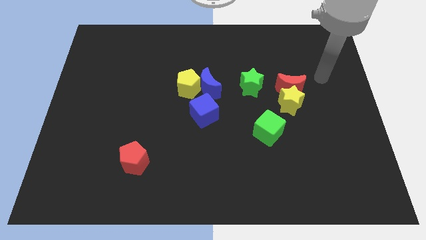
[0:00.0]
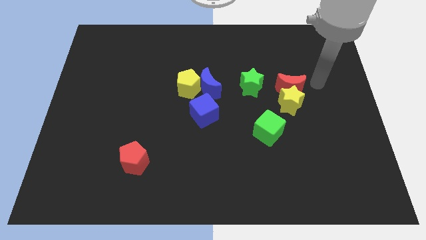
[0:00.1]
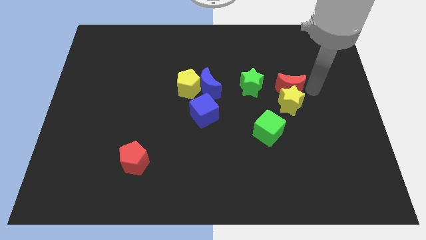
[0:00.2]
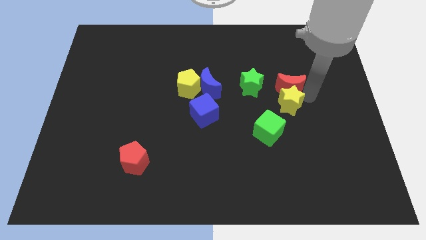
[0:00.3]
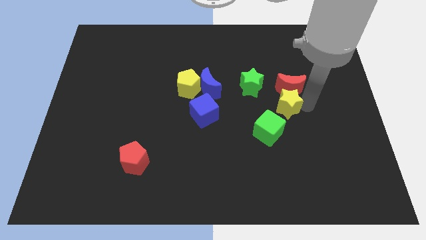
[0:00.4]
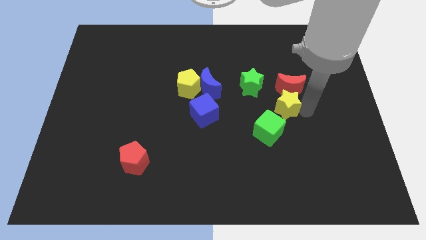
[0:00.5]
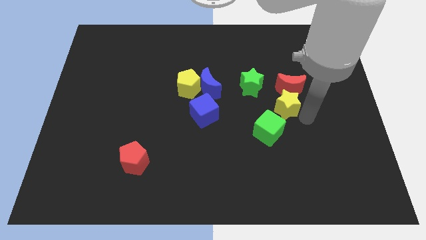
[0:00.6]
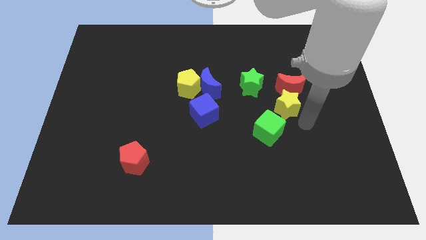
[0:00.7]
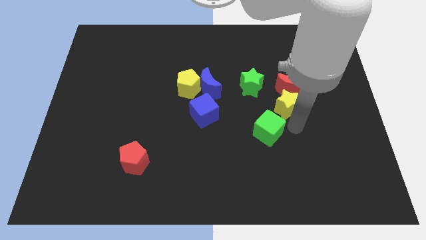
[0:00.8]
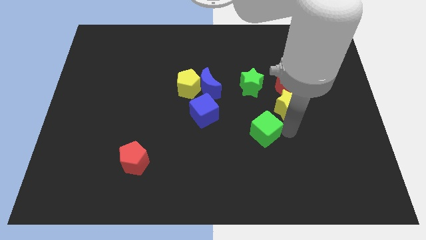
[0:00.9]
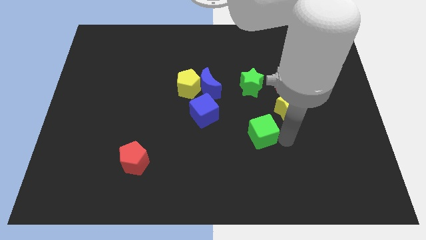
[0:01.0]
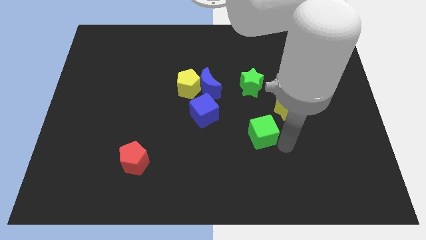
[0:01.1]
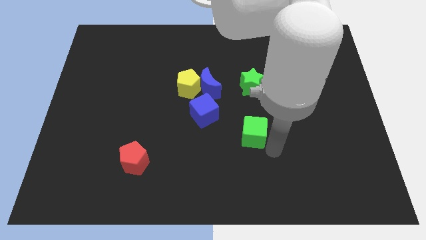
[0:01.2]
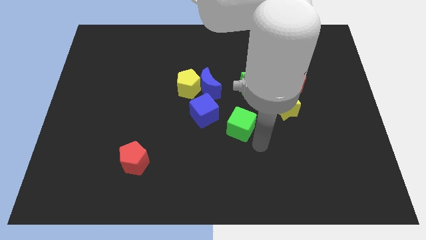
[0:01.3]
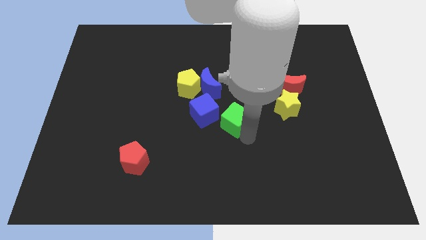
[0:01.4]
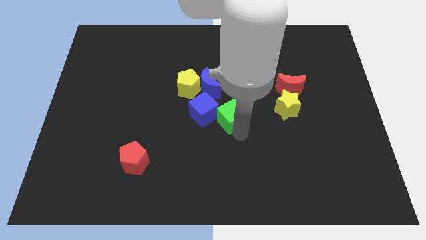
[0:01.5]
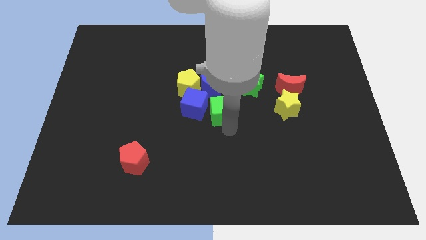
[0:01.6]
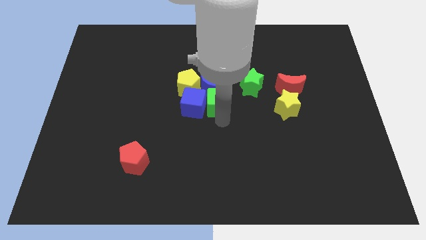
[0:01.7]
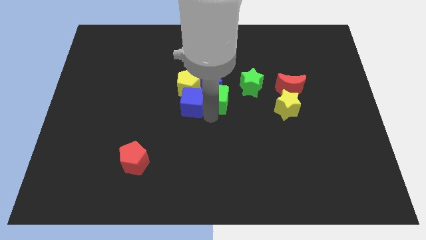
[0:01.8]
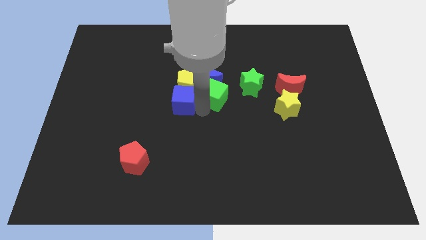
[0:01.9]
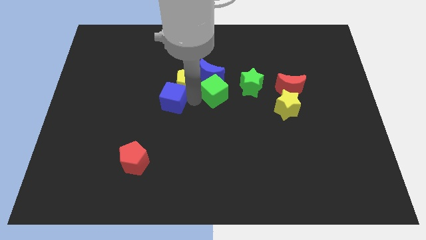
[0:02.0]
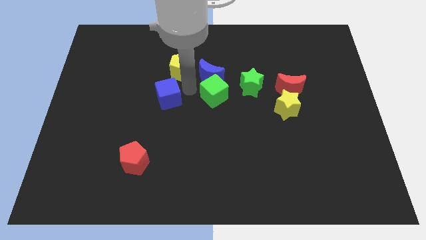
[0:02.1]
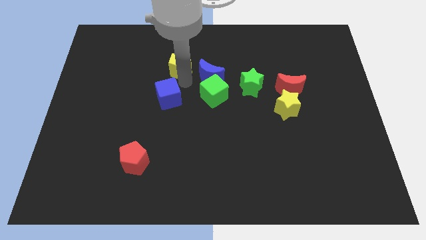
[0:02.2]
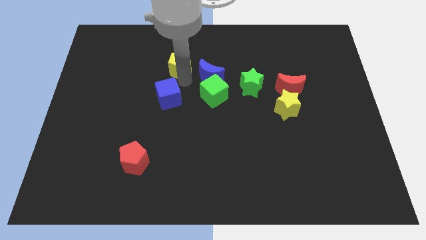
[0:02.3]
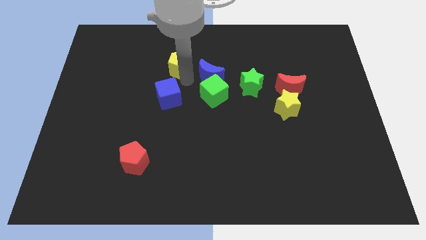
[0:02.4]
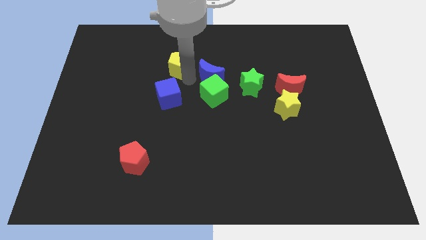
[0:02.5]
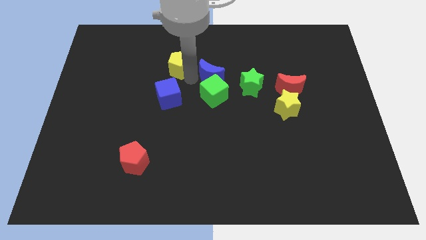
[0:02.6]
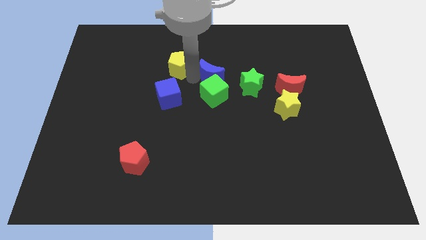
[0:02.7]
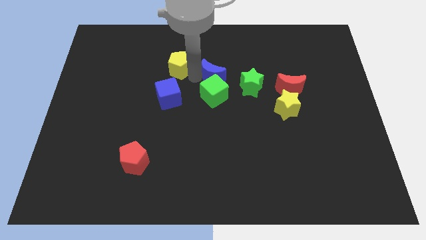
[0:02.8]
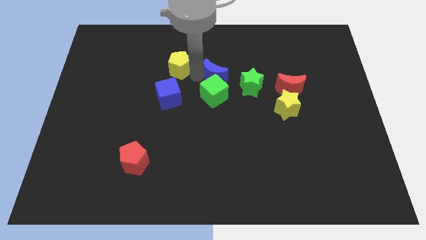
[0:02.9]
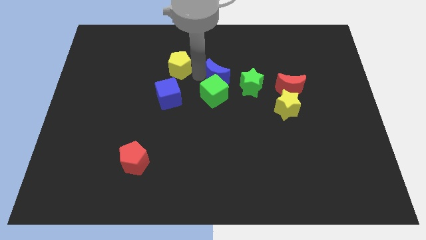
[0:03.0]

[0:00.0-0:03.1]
move the blue moon away from the yellow pentagon and blue cube

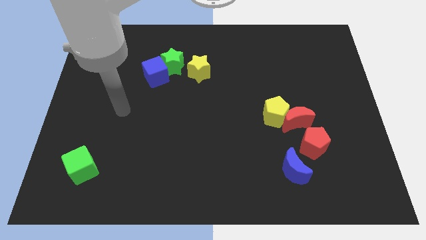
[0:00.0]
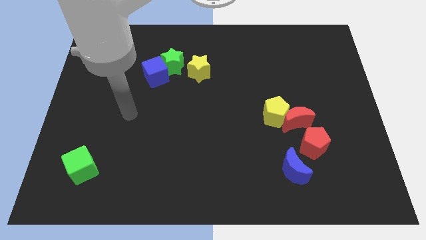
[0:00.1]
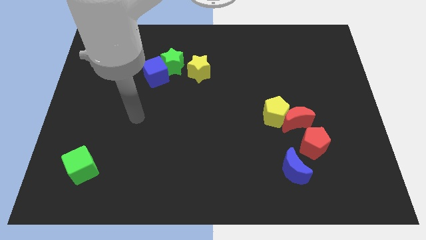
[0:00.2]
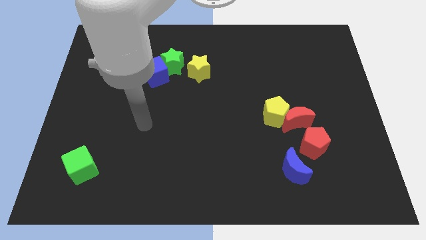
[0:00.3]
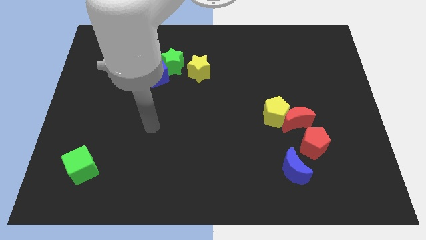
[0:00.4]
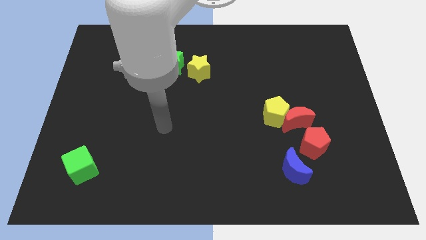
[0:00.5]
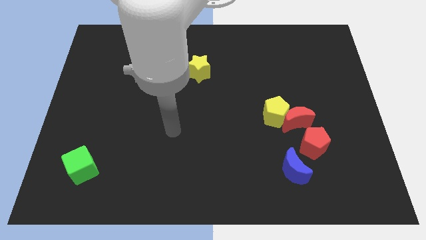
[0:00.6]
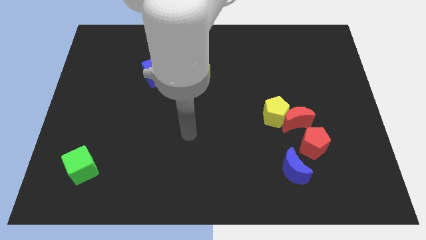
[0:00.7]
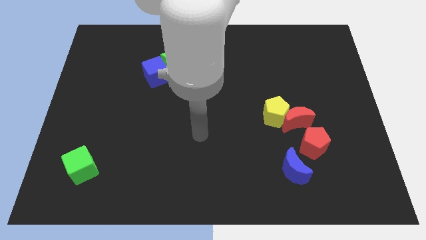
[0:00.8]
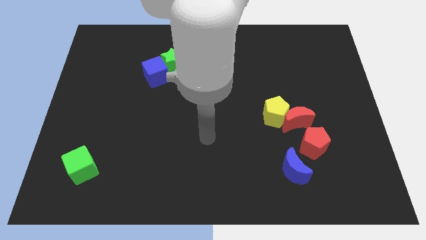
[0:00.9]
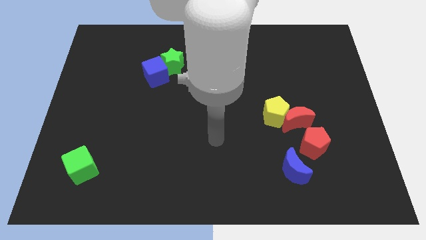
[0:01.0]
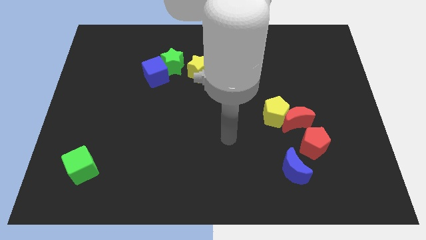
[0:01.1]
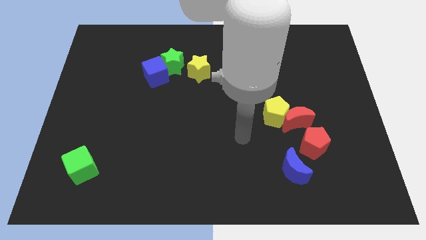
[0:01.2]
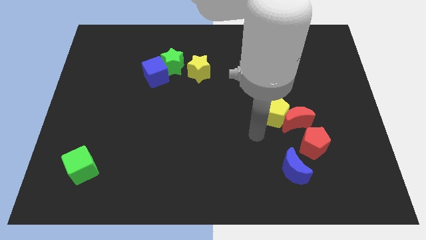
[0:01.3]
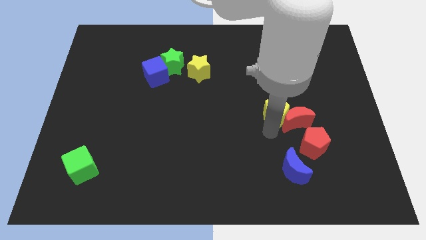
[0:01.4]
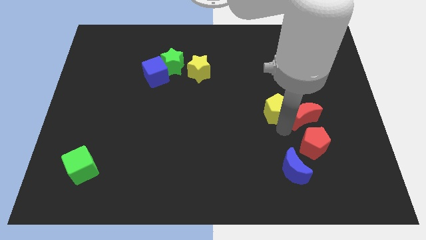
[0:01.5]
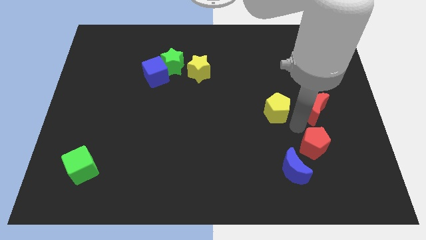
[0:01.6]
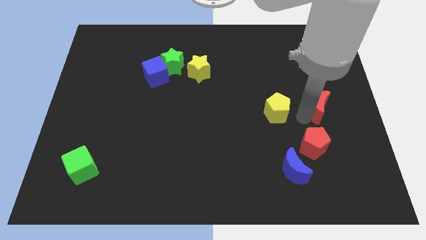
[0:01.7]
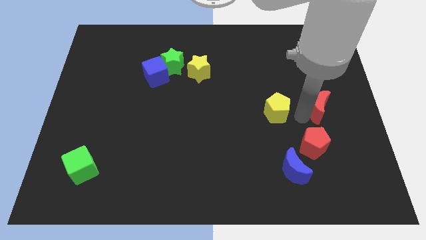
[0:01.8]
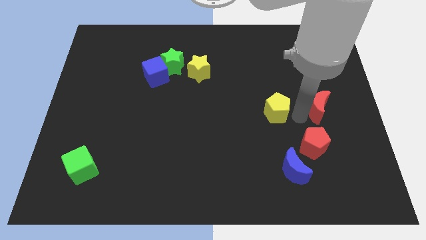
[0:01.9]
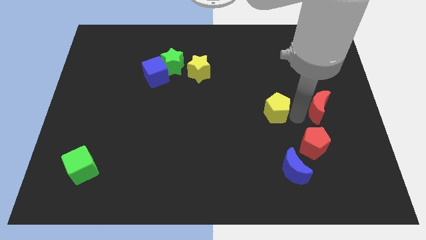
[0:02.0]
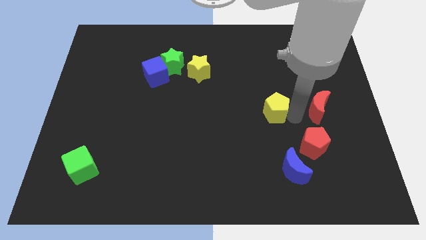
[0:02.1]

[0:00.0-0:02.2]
separate the yellow pentagon from the red moon

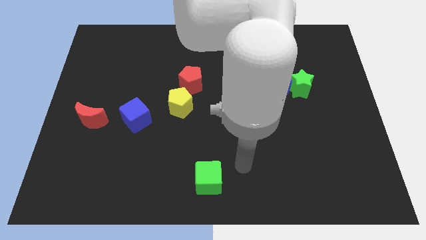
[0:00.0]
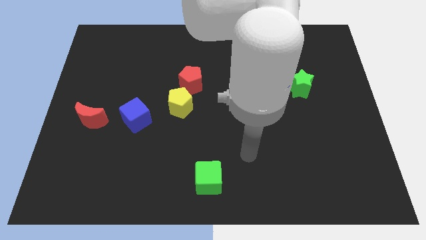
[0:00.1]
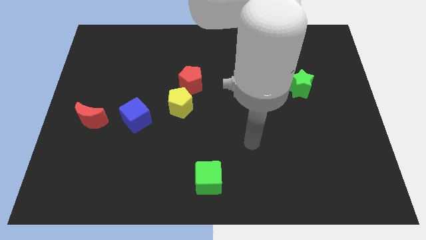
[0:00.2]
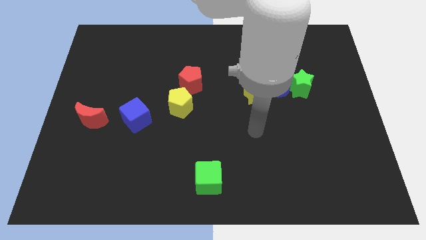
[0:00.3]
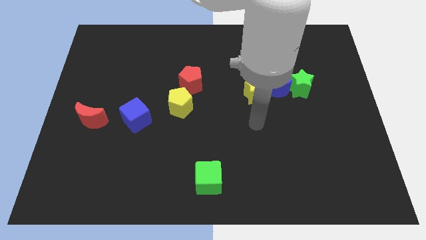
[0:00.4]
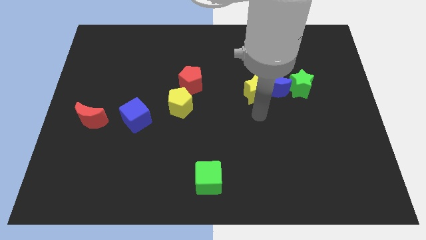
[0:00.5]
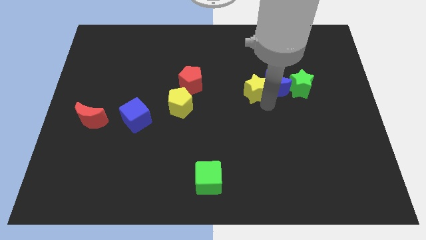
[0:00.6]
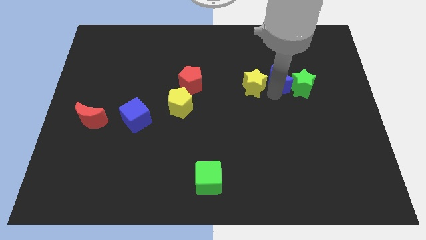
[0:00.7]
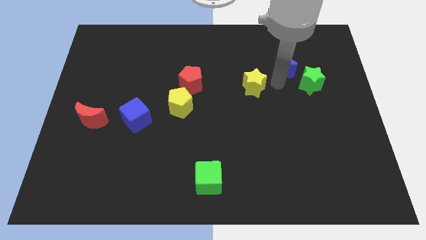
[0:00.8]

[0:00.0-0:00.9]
separate the yellow star from the blue moon

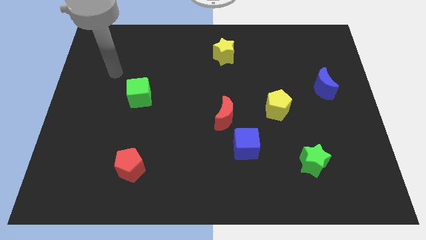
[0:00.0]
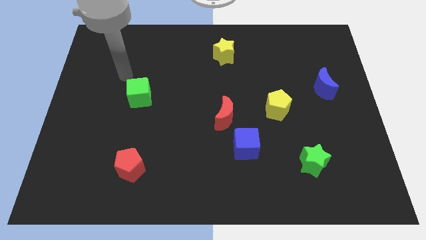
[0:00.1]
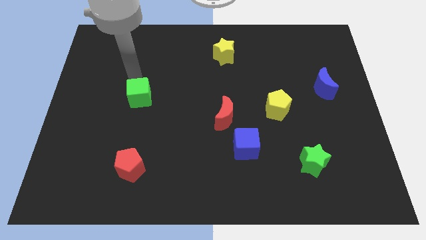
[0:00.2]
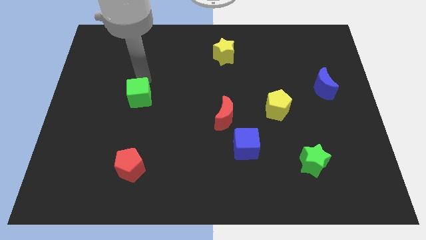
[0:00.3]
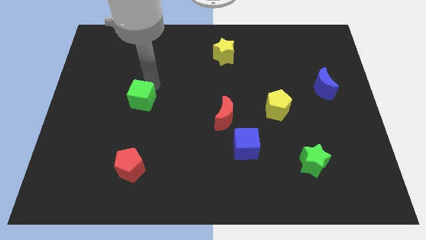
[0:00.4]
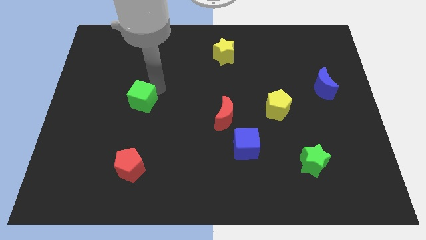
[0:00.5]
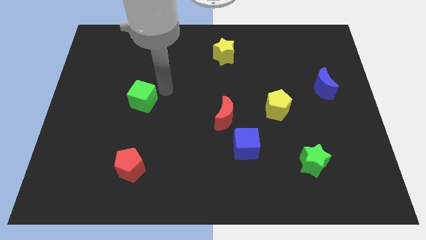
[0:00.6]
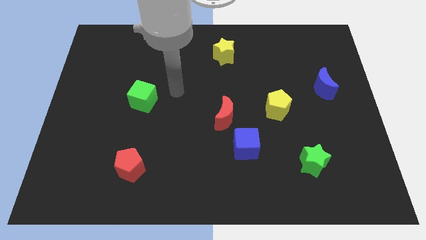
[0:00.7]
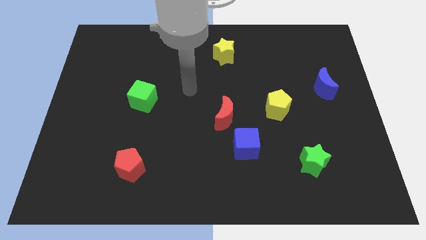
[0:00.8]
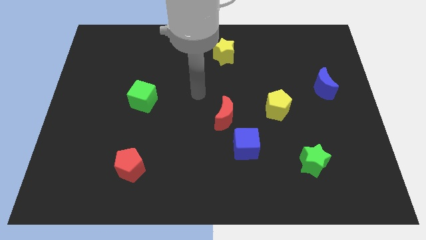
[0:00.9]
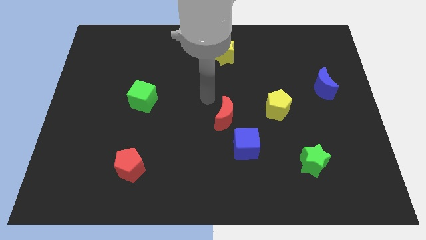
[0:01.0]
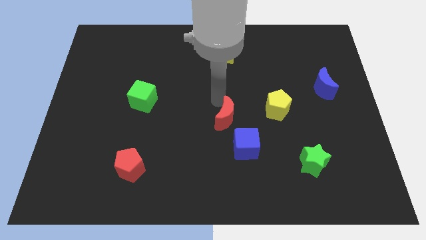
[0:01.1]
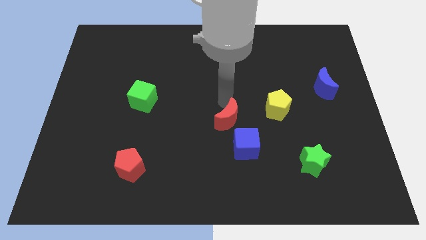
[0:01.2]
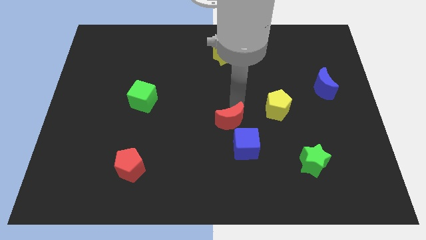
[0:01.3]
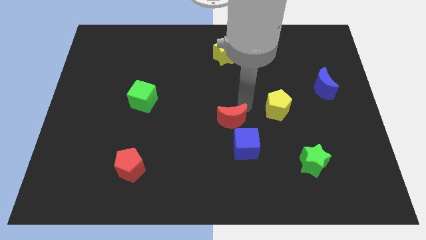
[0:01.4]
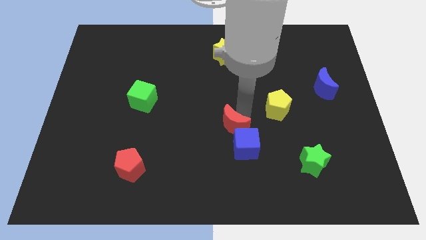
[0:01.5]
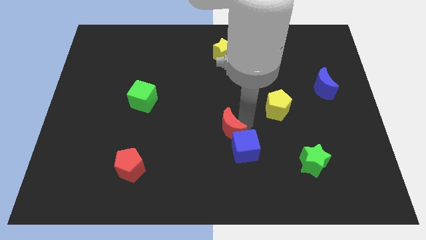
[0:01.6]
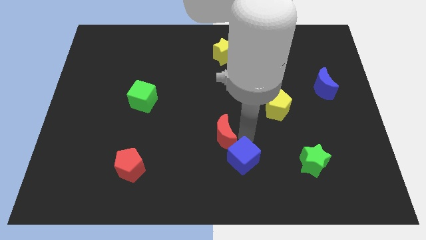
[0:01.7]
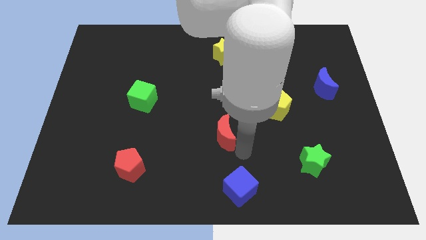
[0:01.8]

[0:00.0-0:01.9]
move the red moon away from the blue cube

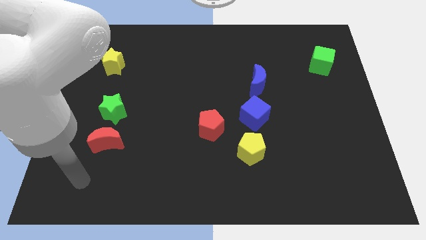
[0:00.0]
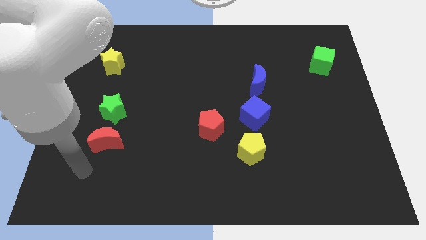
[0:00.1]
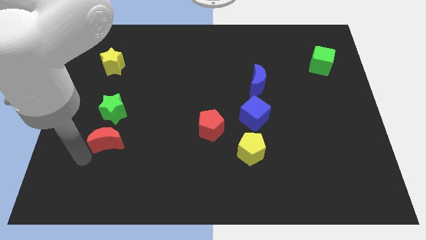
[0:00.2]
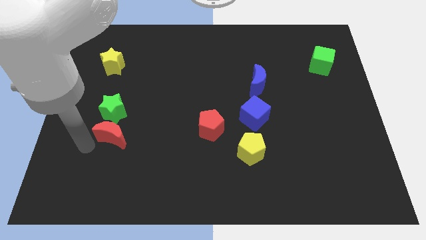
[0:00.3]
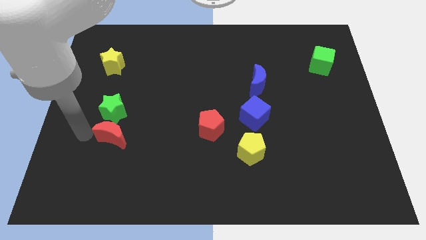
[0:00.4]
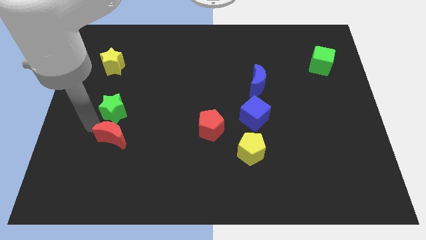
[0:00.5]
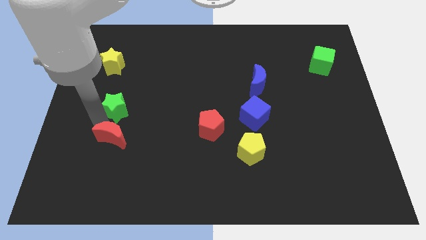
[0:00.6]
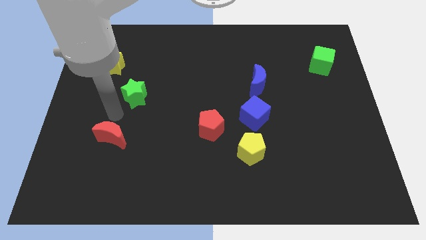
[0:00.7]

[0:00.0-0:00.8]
separate the red moon from the green star

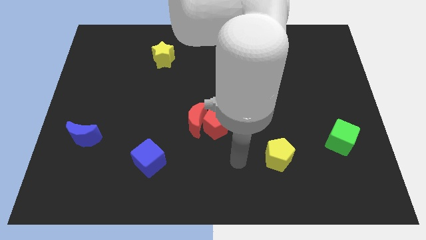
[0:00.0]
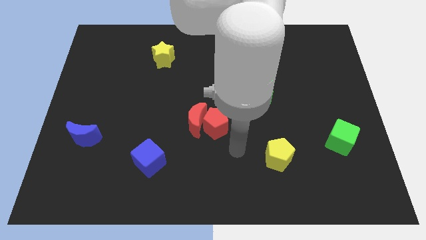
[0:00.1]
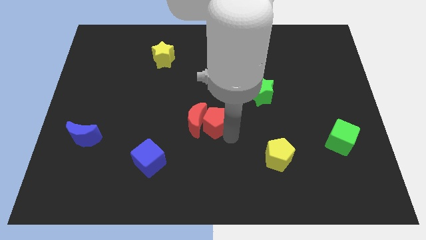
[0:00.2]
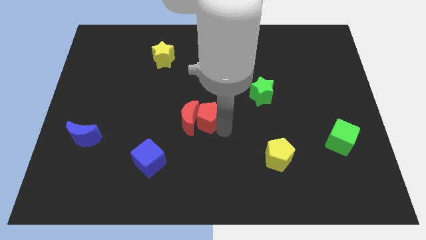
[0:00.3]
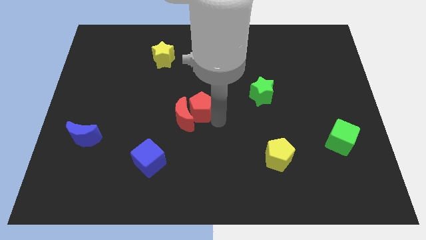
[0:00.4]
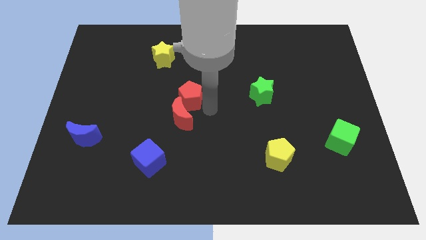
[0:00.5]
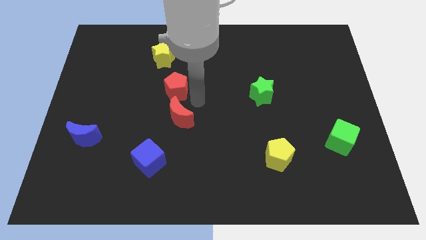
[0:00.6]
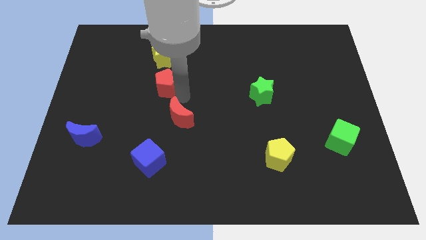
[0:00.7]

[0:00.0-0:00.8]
separate the red moon from the red pentagon
